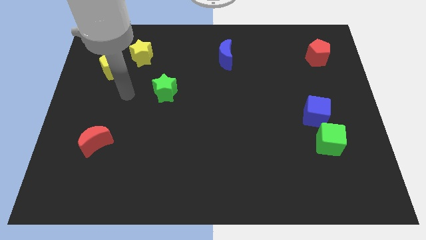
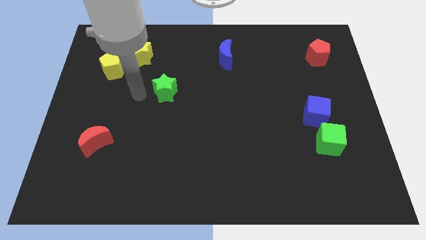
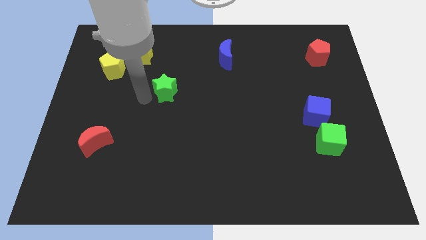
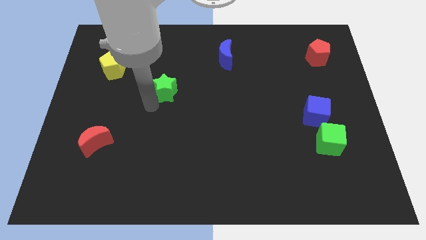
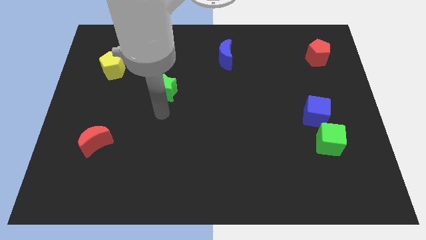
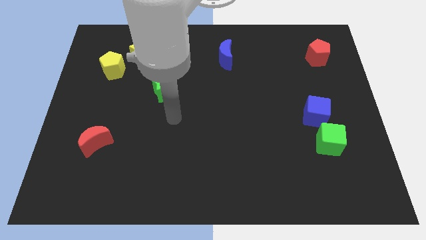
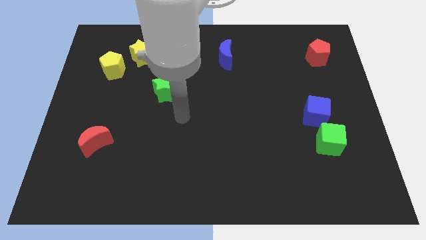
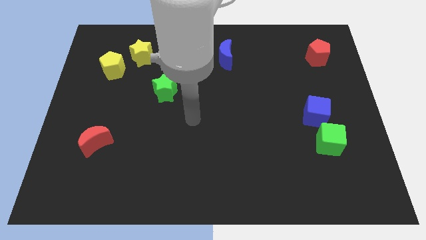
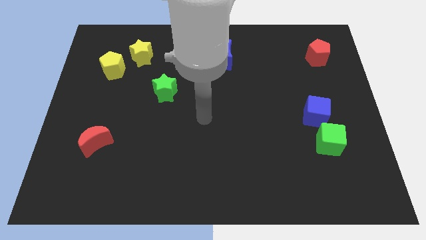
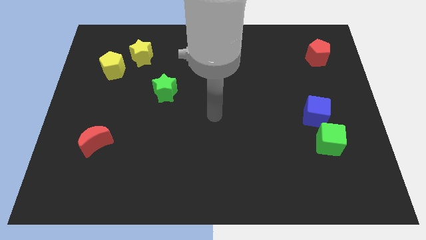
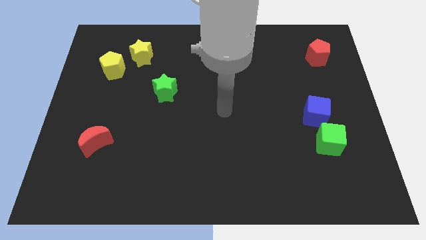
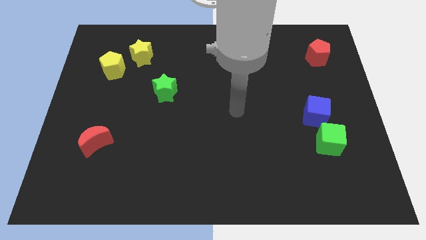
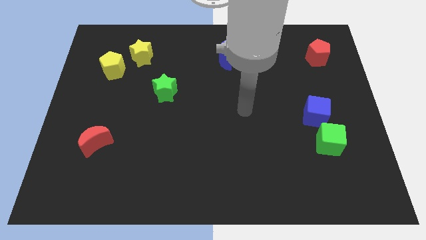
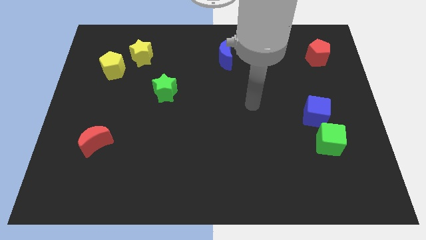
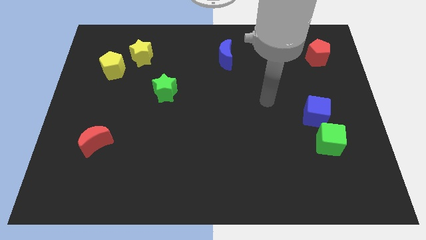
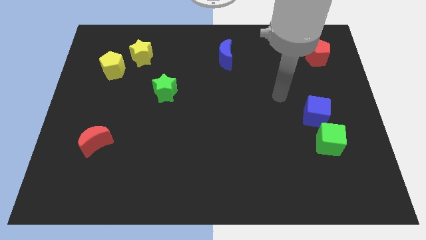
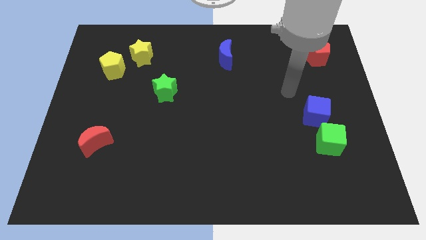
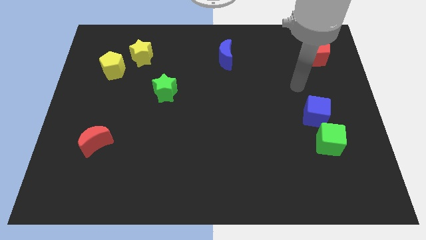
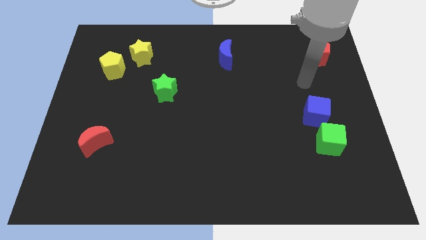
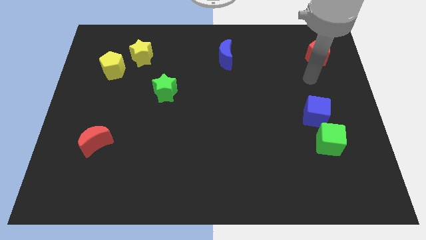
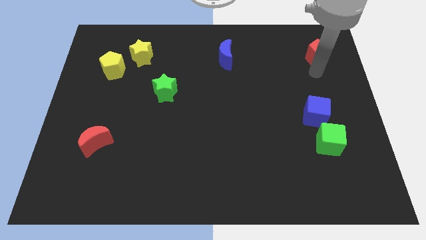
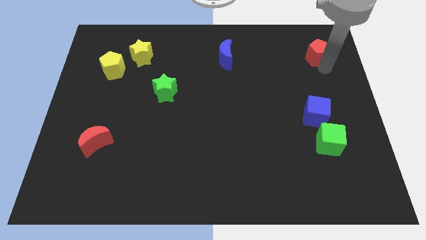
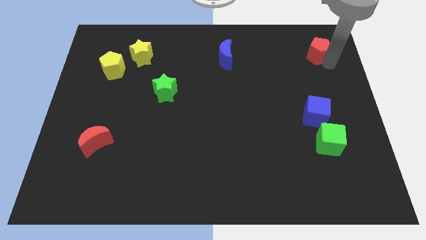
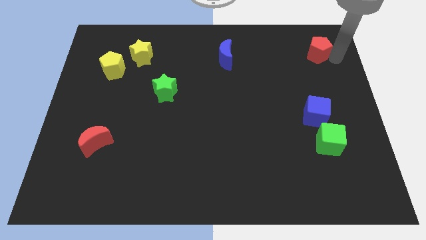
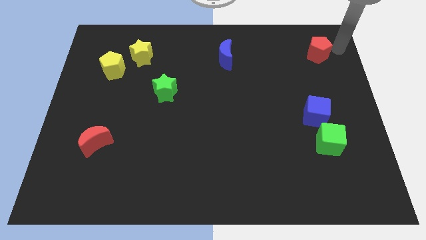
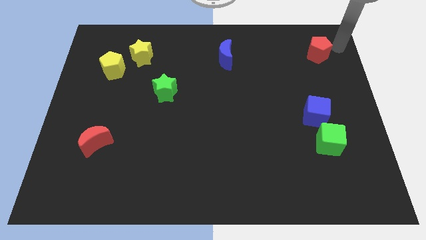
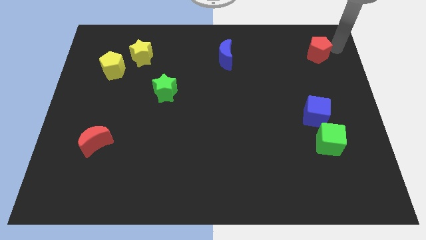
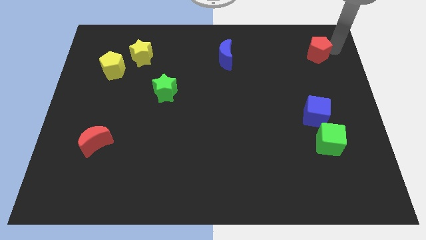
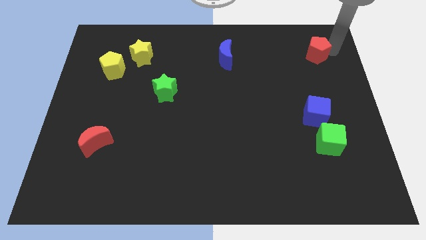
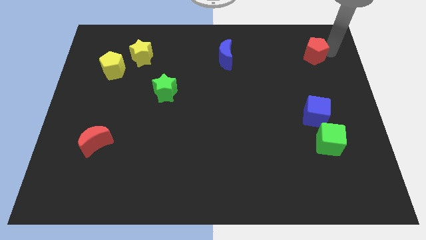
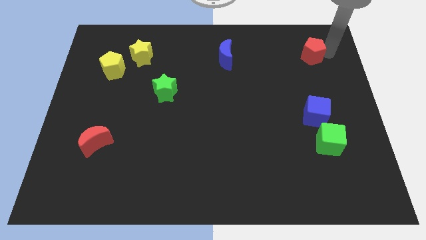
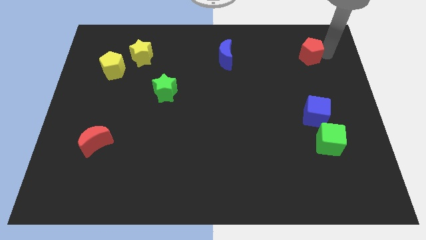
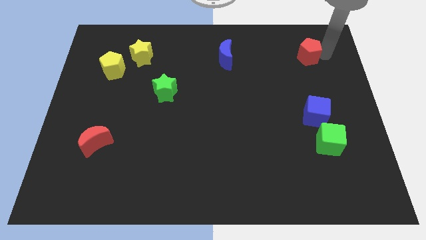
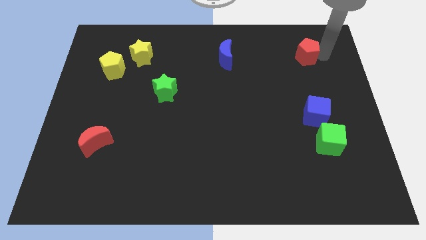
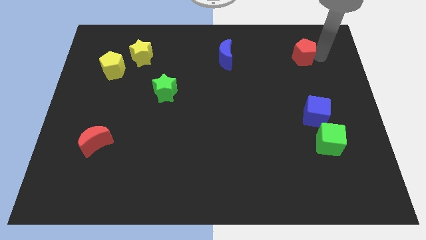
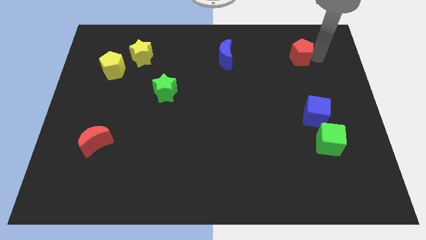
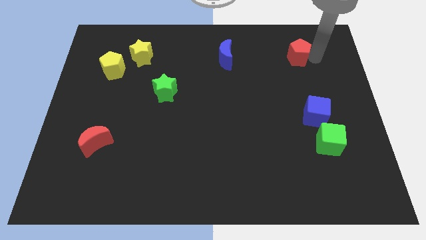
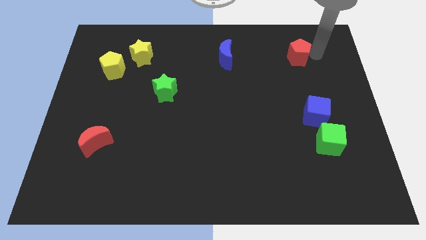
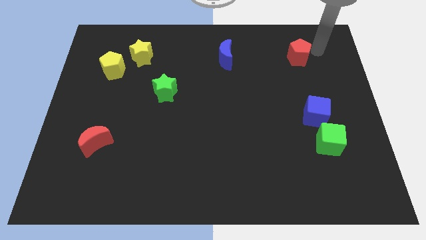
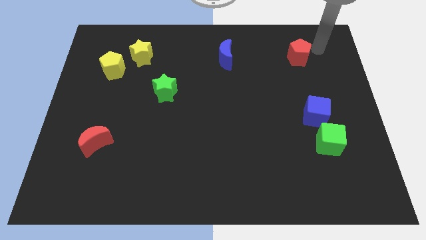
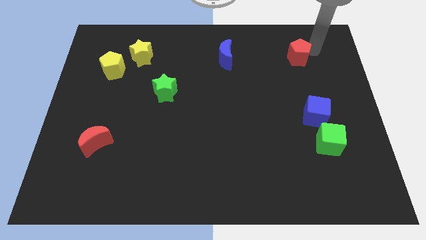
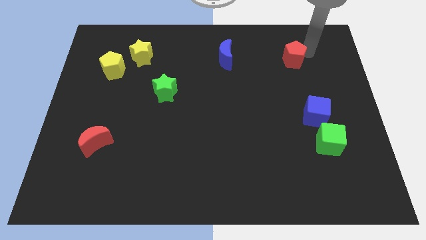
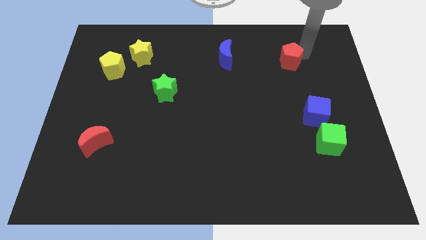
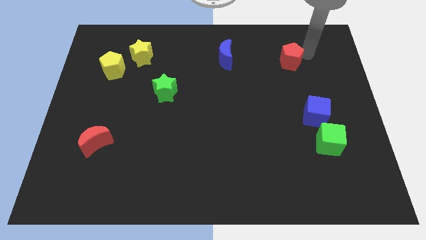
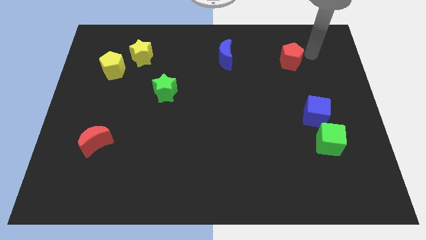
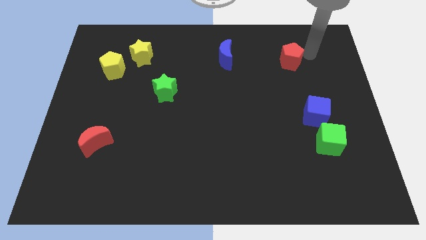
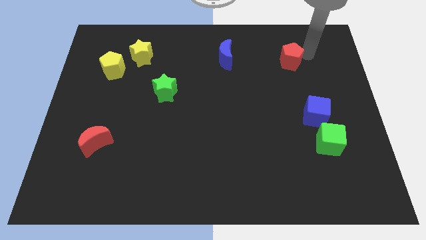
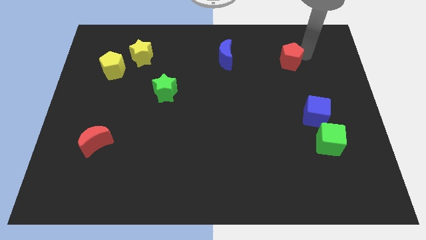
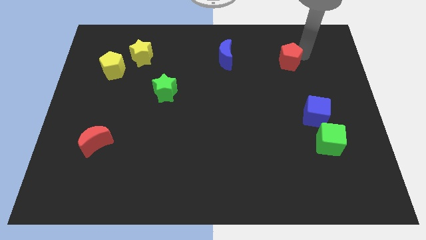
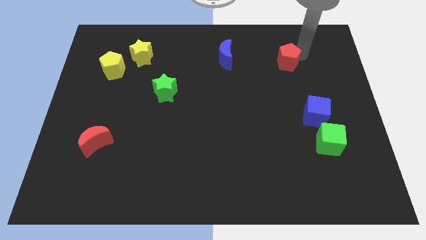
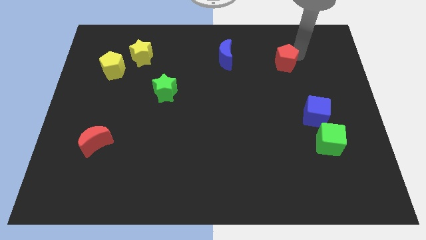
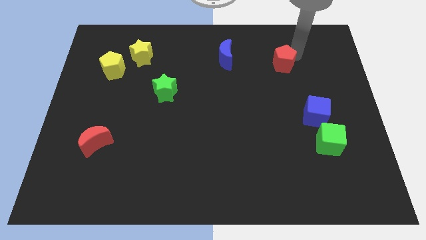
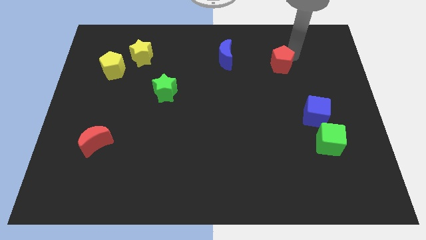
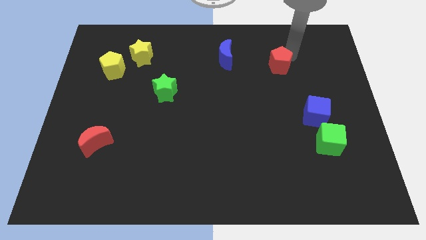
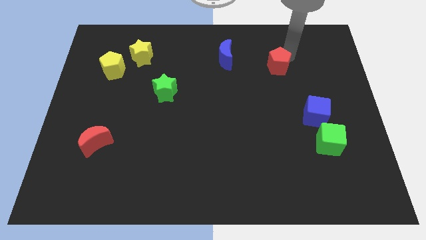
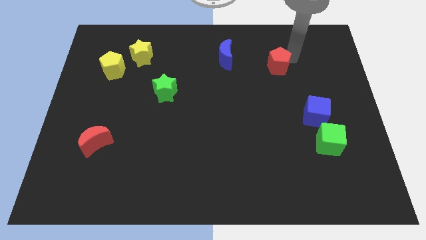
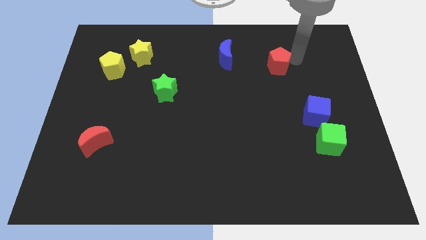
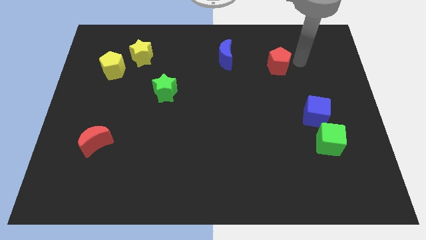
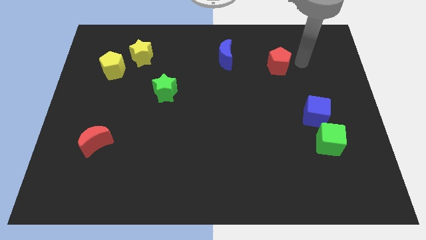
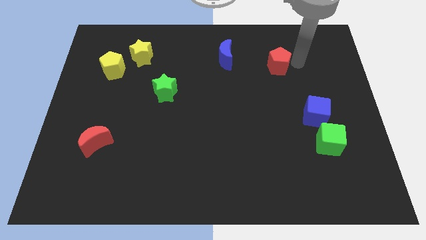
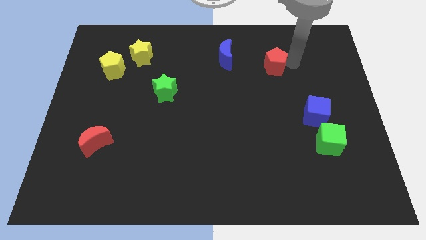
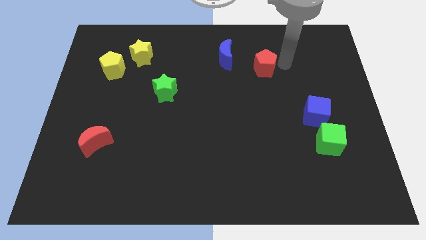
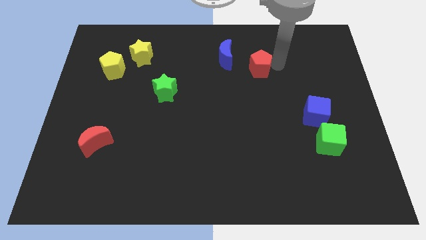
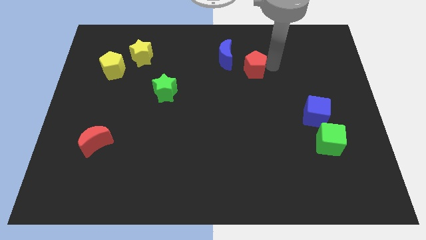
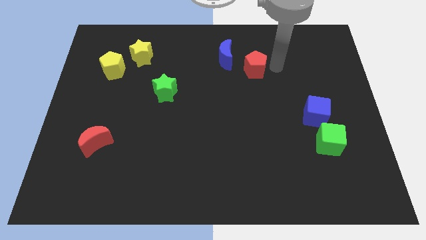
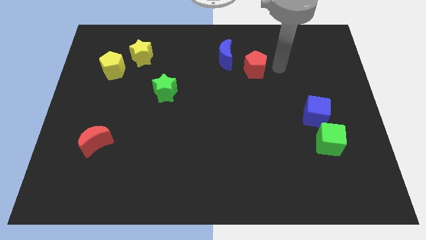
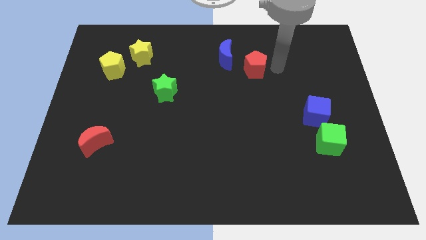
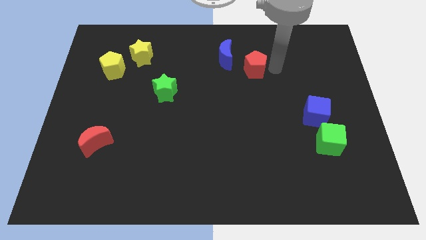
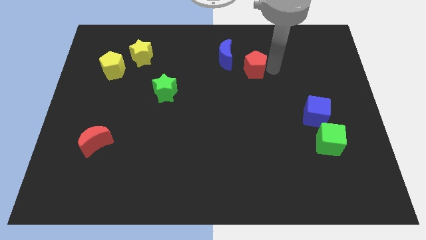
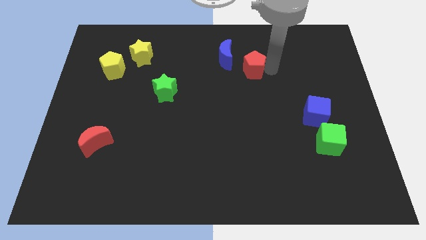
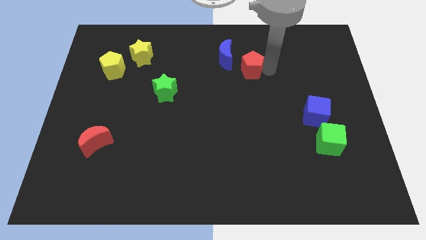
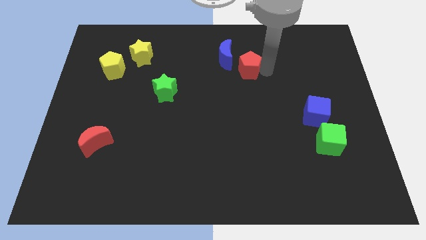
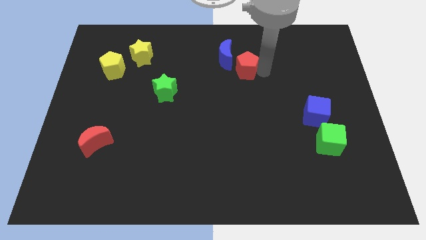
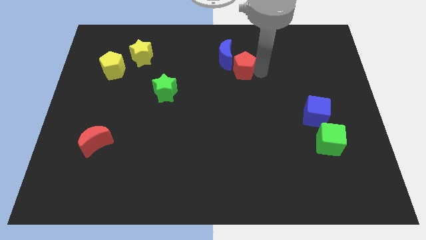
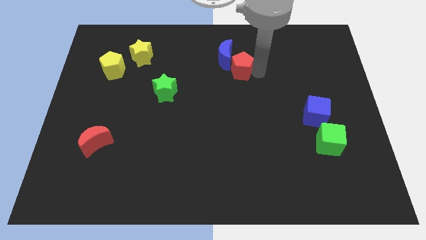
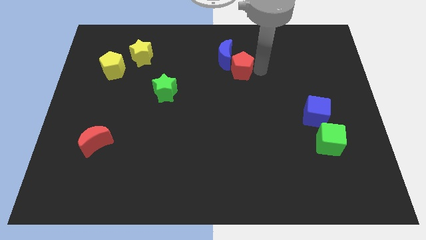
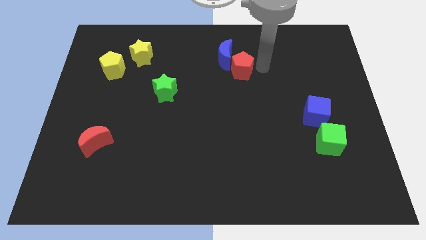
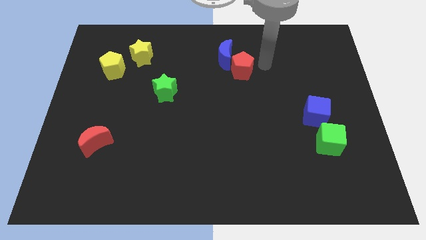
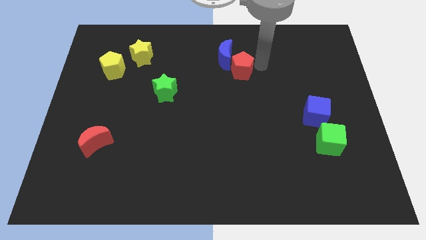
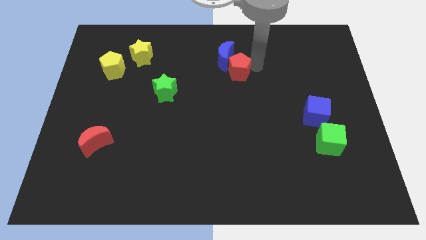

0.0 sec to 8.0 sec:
slide the red pentagon left

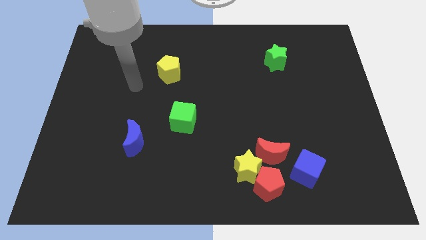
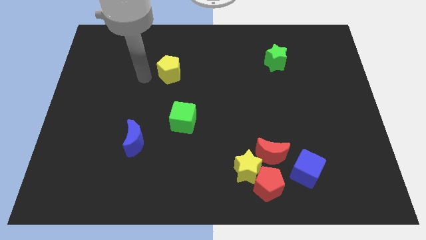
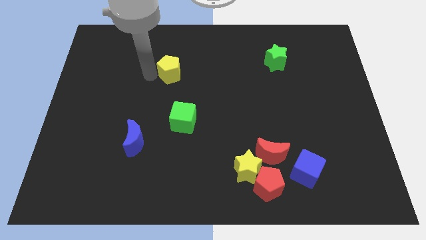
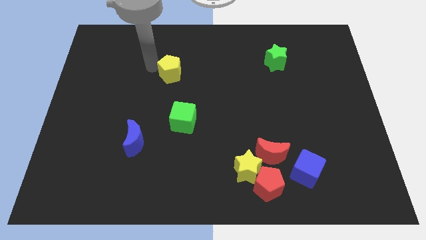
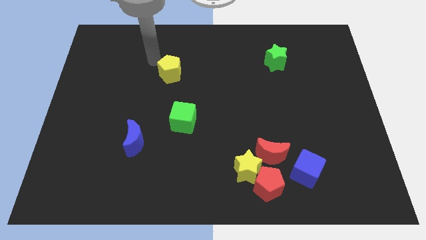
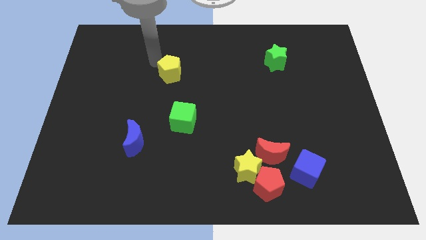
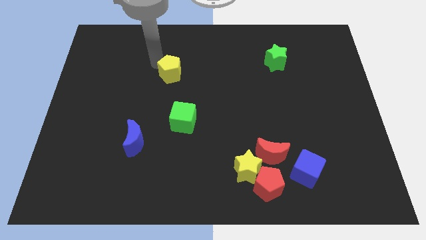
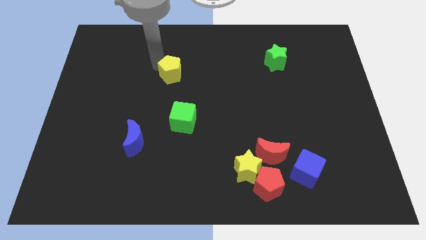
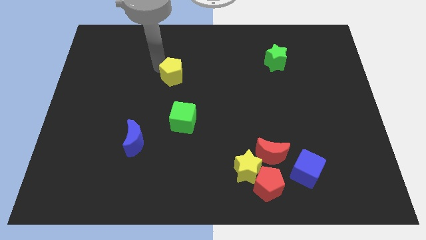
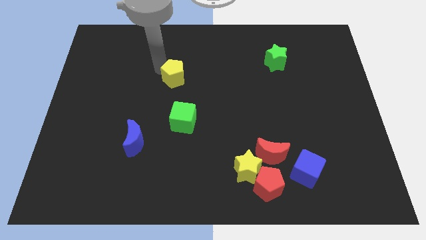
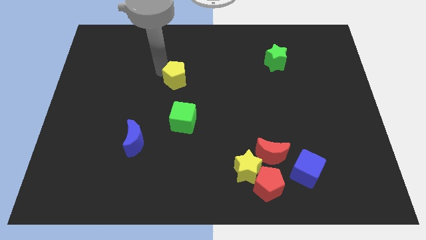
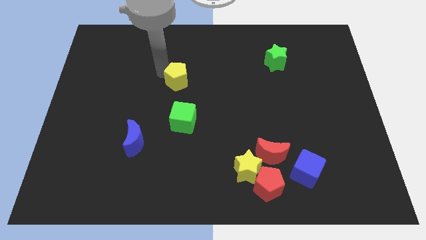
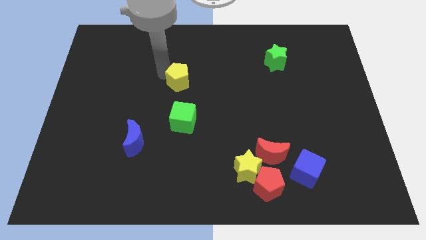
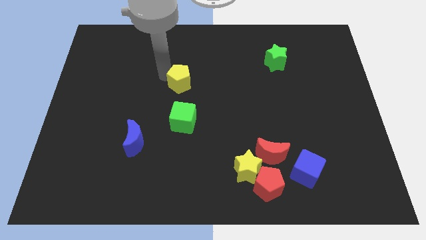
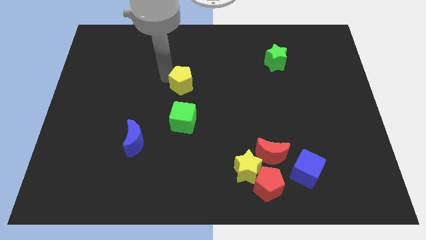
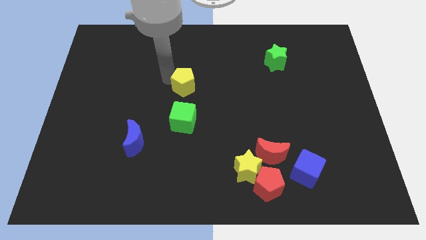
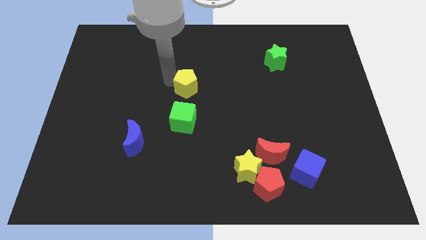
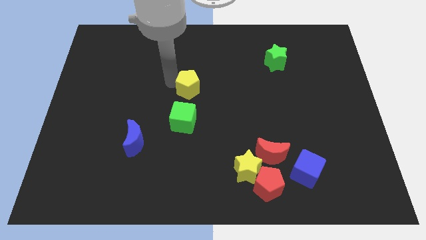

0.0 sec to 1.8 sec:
push the yellow pentagon slightly diagonally down and right
